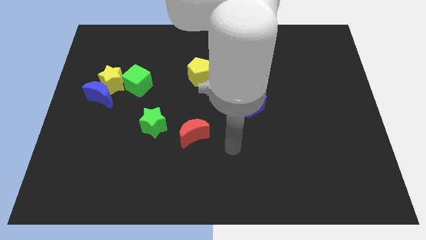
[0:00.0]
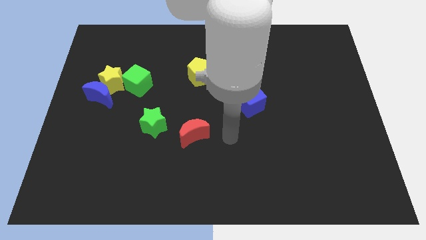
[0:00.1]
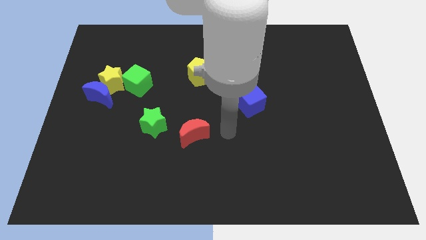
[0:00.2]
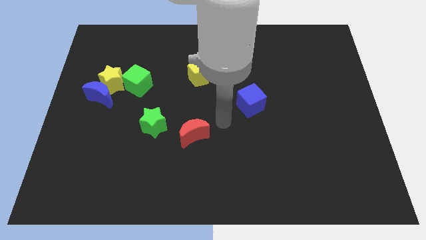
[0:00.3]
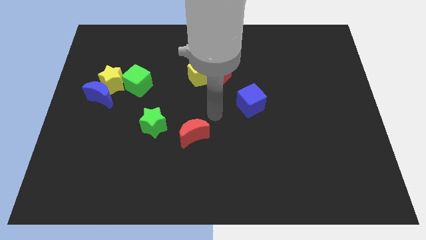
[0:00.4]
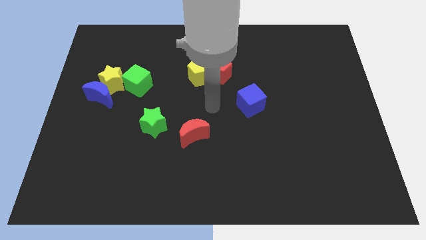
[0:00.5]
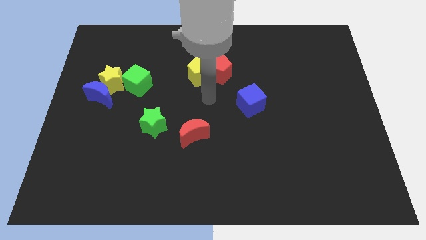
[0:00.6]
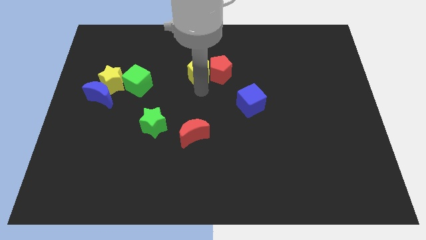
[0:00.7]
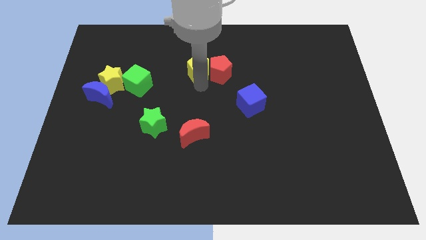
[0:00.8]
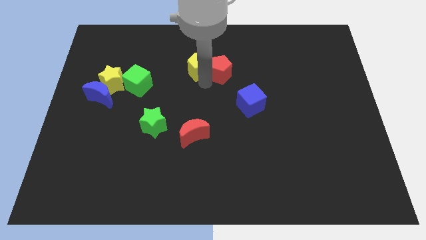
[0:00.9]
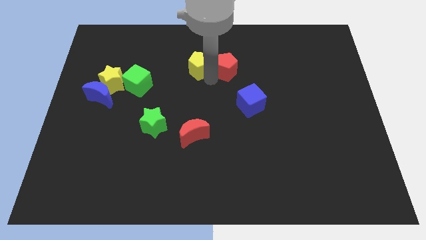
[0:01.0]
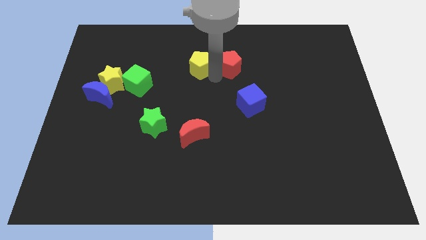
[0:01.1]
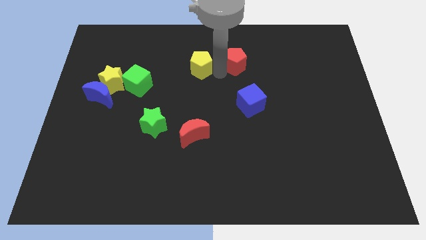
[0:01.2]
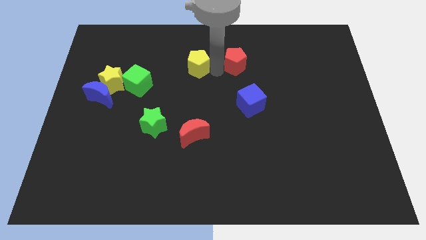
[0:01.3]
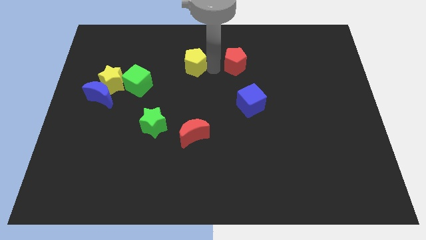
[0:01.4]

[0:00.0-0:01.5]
pull the red pentagon apart from the yellow pentagon

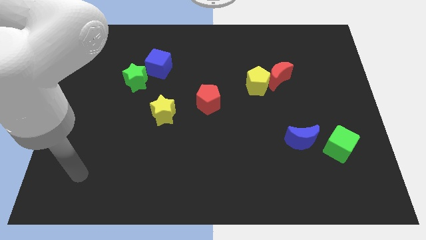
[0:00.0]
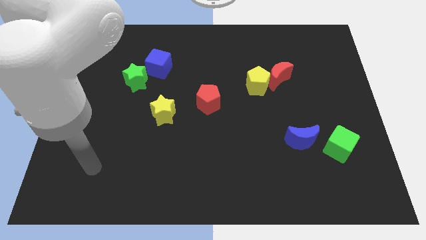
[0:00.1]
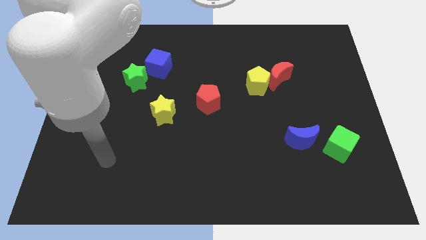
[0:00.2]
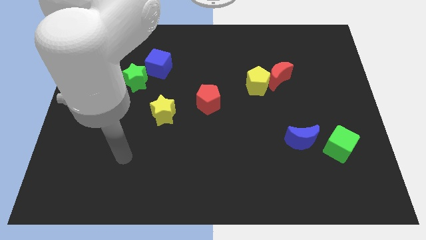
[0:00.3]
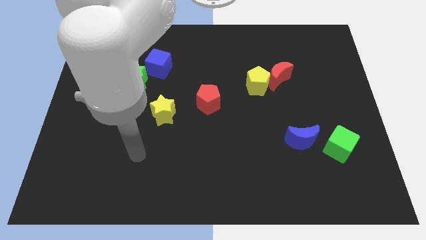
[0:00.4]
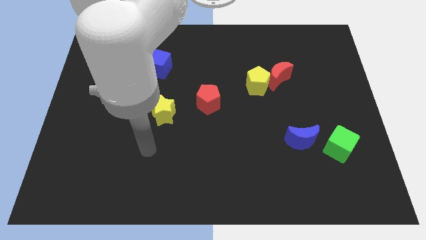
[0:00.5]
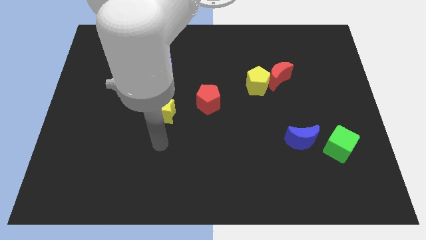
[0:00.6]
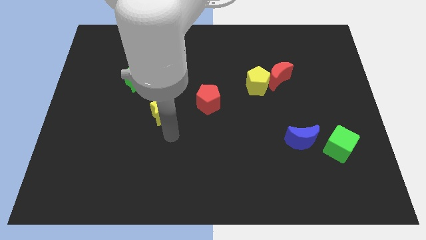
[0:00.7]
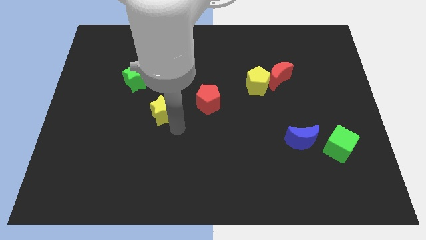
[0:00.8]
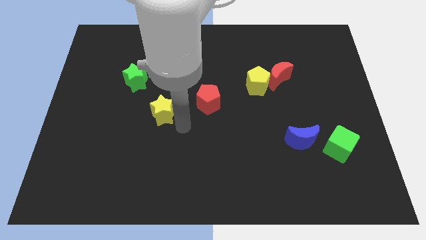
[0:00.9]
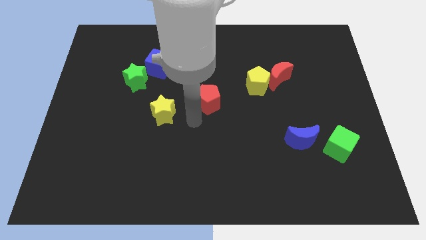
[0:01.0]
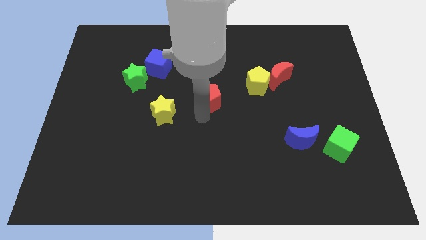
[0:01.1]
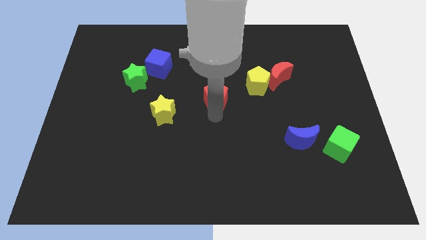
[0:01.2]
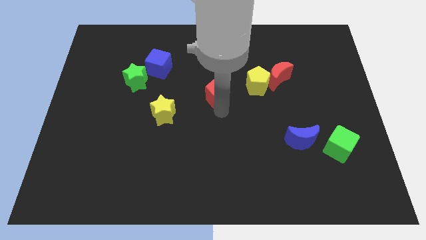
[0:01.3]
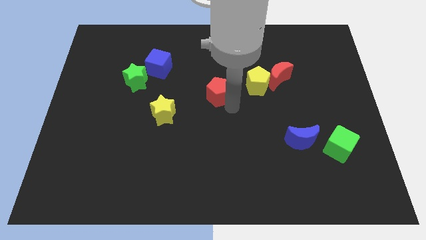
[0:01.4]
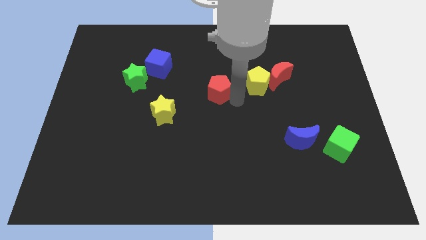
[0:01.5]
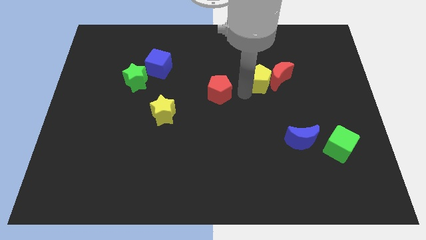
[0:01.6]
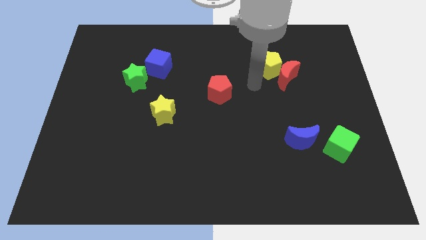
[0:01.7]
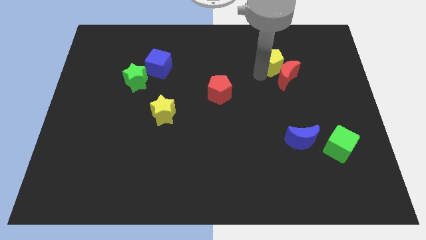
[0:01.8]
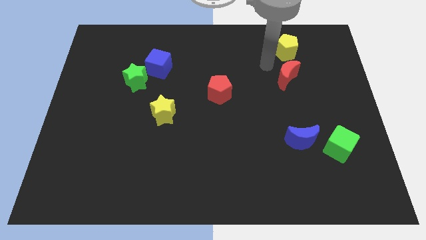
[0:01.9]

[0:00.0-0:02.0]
separate the red moon from the yellow pentagon

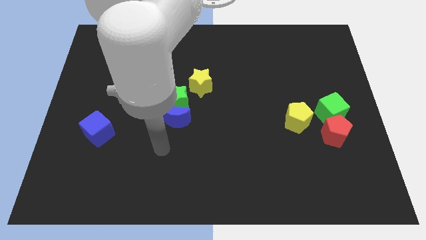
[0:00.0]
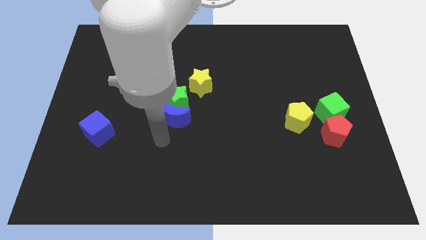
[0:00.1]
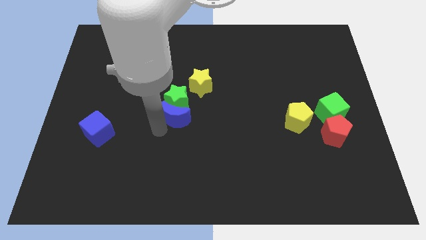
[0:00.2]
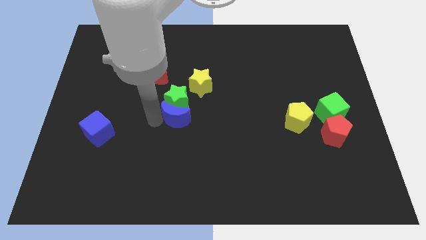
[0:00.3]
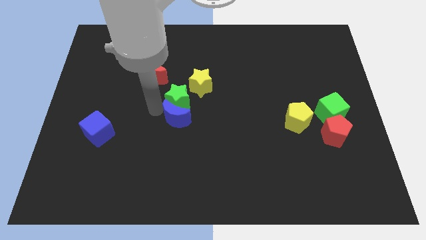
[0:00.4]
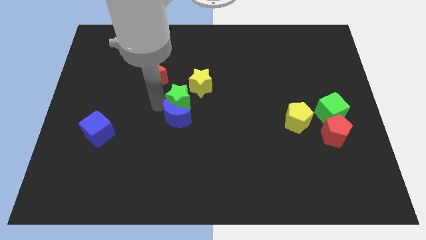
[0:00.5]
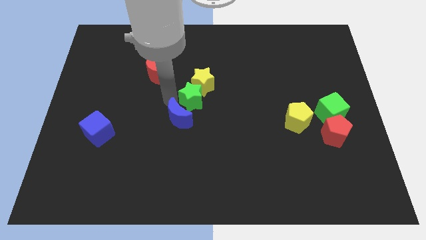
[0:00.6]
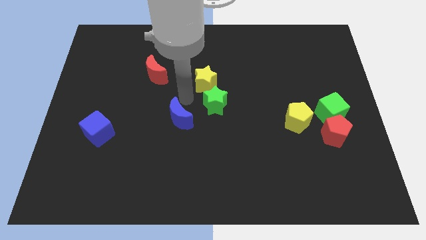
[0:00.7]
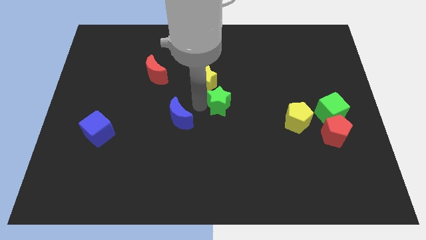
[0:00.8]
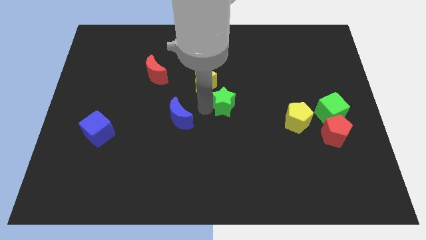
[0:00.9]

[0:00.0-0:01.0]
pull the blue moon apart from the green star

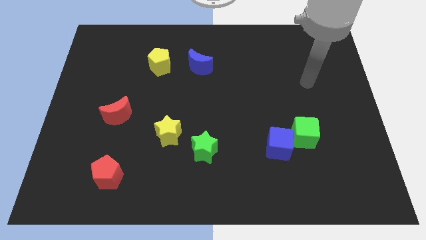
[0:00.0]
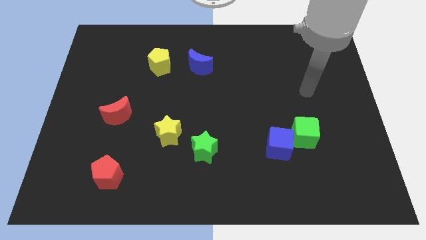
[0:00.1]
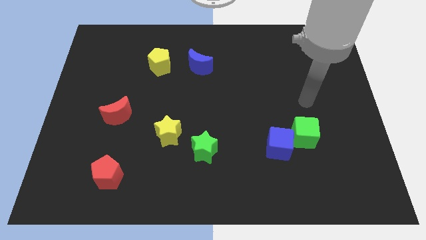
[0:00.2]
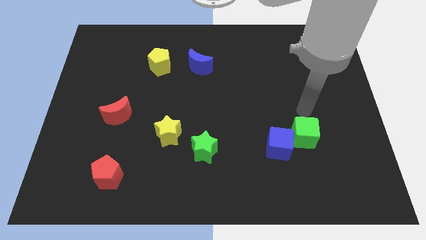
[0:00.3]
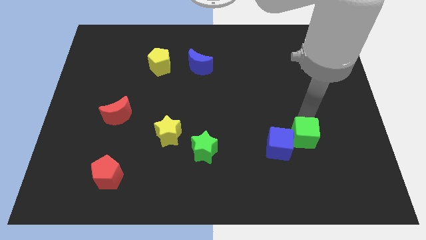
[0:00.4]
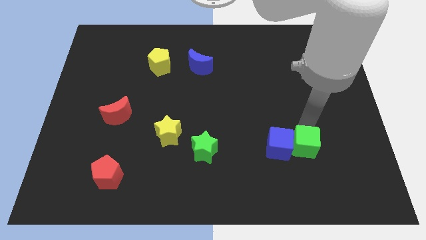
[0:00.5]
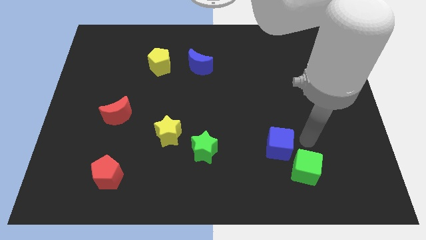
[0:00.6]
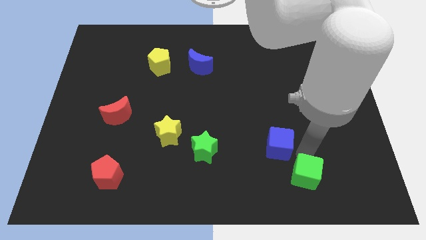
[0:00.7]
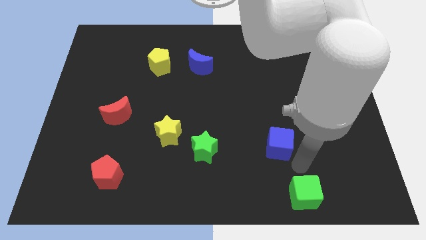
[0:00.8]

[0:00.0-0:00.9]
move the blue cube away from the green cube

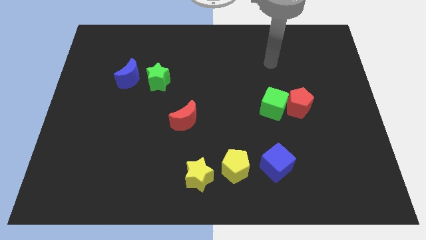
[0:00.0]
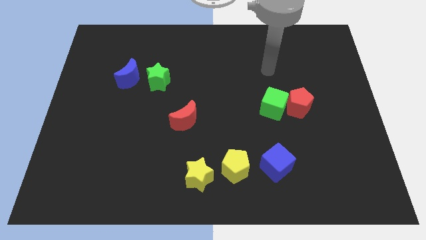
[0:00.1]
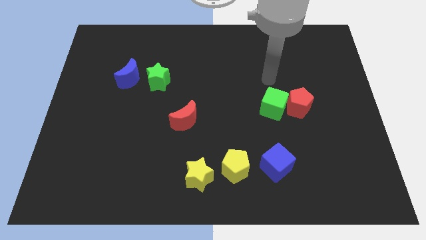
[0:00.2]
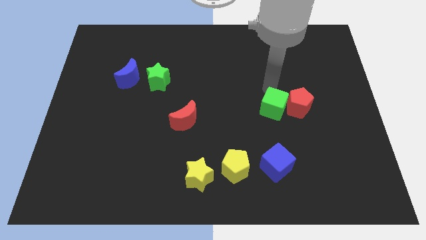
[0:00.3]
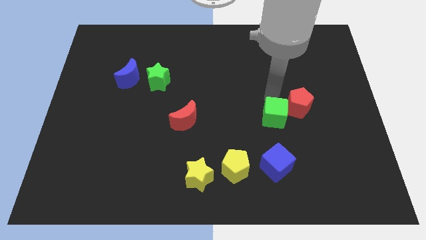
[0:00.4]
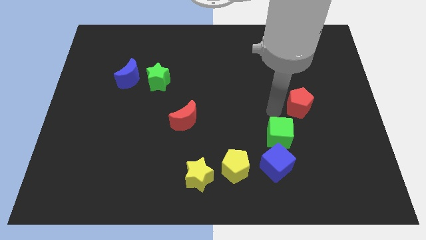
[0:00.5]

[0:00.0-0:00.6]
move the red pentagon away from the green cube

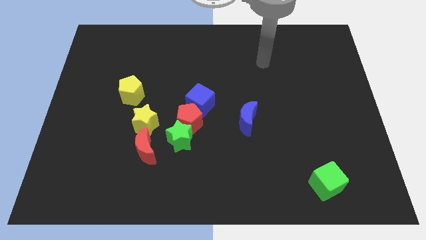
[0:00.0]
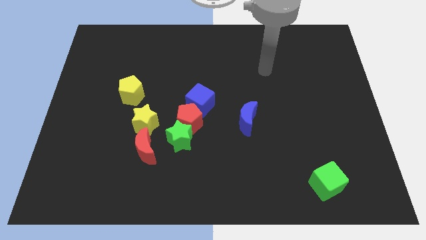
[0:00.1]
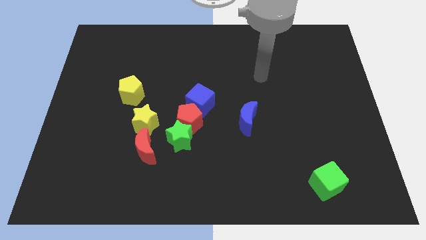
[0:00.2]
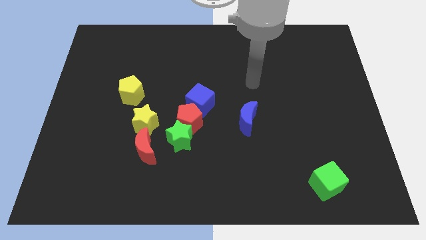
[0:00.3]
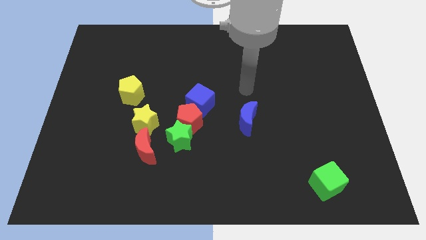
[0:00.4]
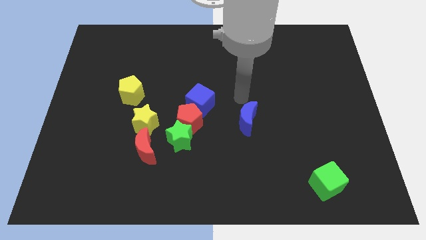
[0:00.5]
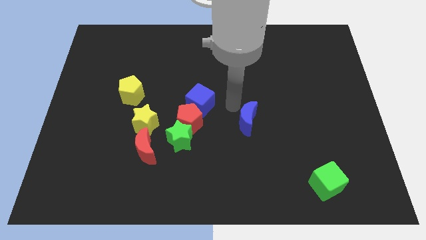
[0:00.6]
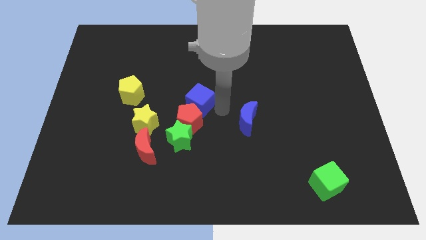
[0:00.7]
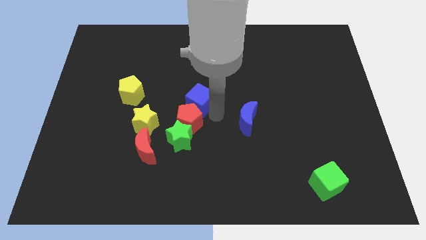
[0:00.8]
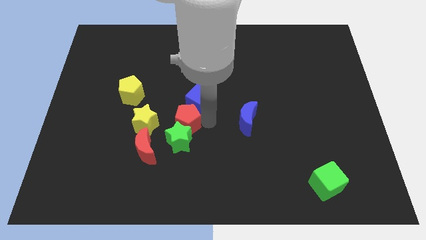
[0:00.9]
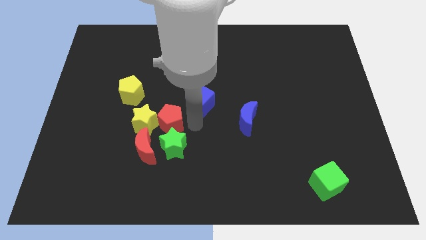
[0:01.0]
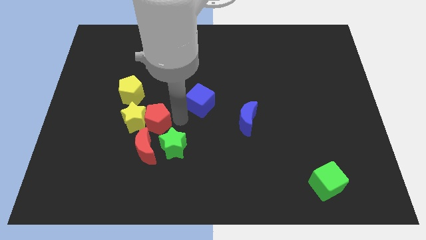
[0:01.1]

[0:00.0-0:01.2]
move the blue cube away from the red pentagon

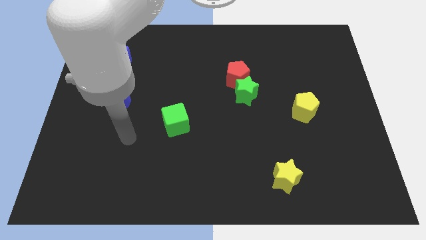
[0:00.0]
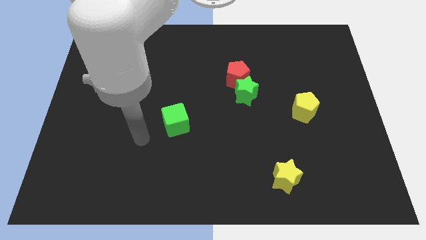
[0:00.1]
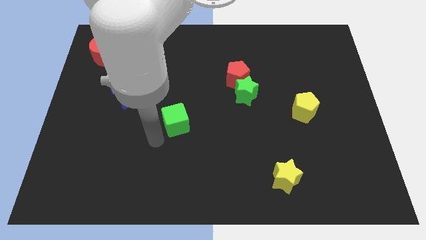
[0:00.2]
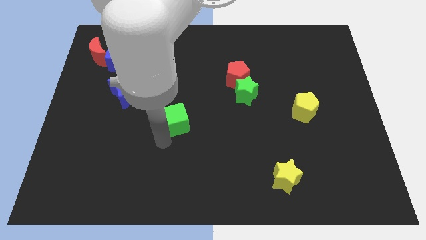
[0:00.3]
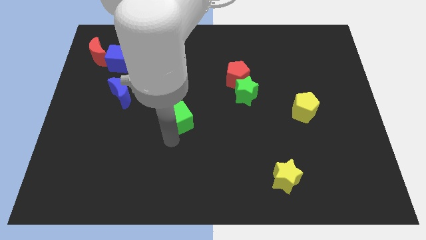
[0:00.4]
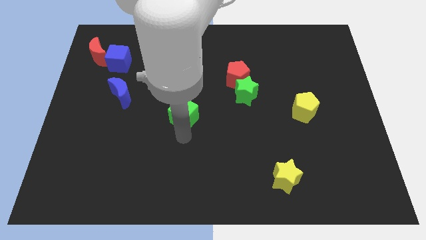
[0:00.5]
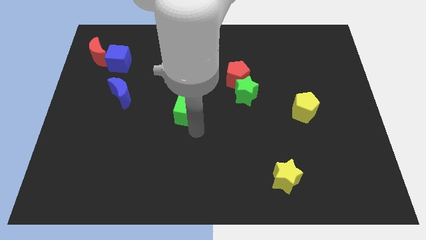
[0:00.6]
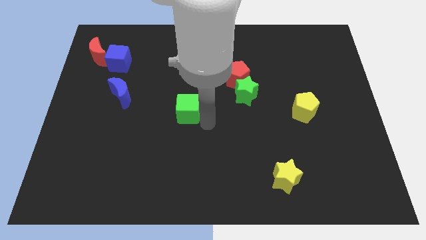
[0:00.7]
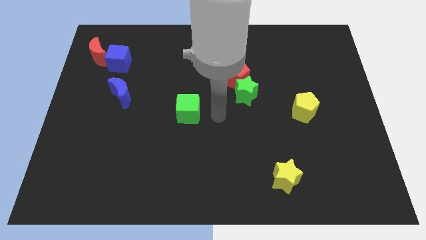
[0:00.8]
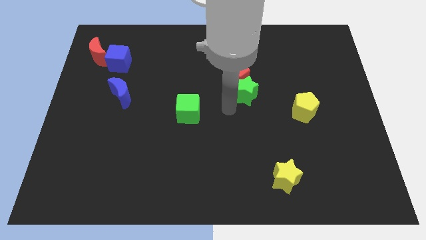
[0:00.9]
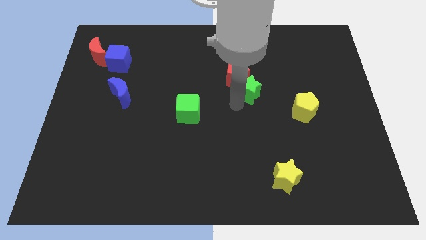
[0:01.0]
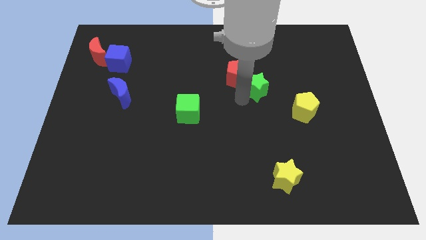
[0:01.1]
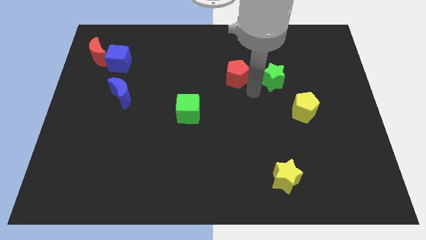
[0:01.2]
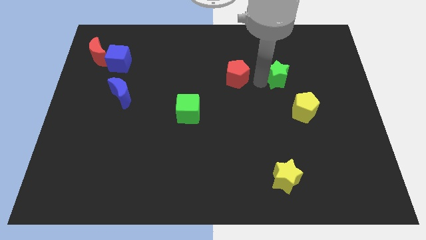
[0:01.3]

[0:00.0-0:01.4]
move the red pentagon away from the green star

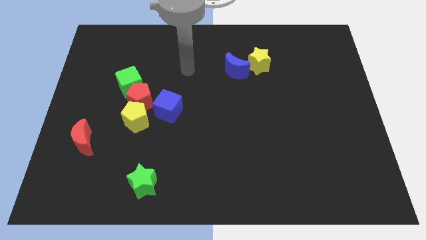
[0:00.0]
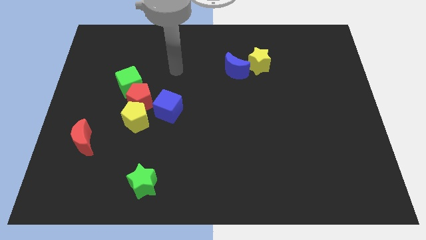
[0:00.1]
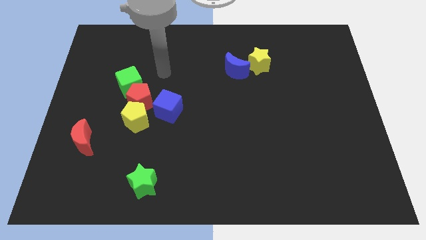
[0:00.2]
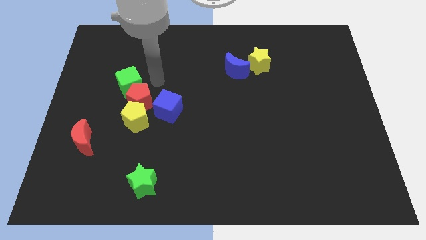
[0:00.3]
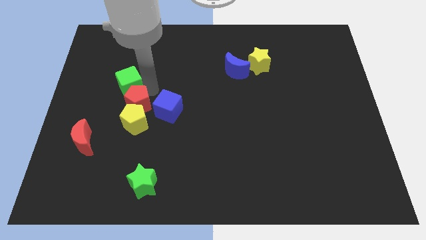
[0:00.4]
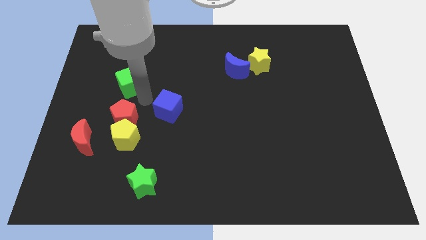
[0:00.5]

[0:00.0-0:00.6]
separate the green cube from the red pentagon

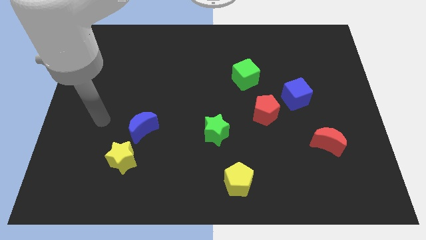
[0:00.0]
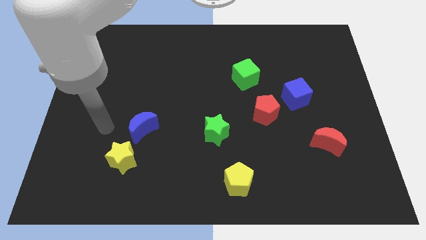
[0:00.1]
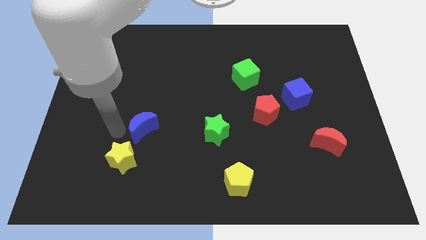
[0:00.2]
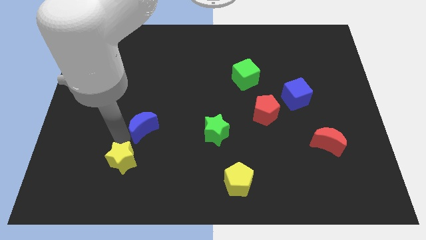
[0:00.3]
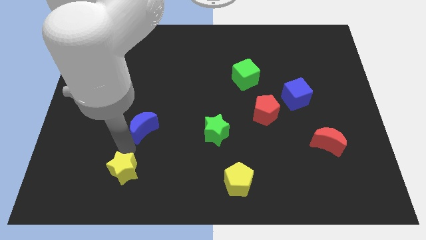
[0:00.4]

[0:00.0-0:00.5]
separate the blue moon from the yellow star
